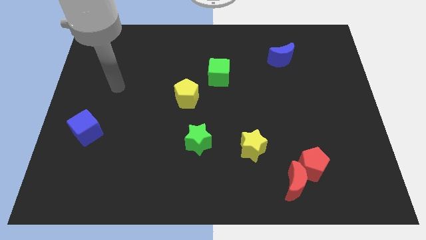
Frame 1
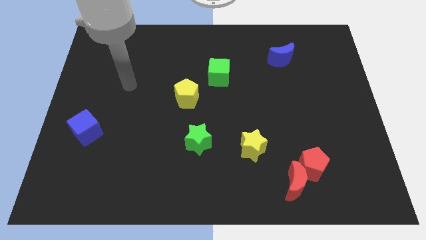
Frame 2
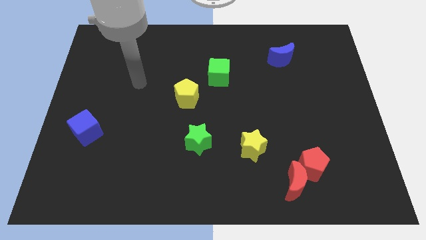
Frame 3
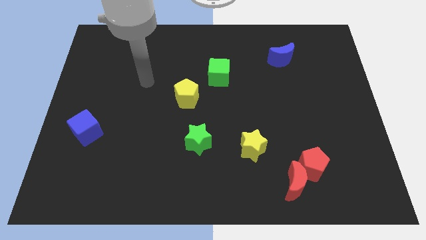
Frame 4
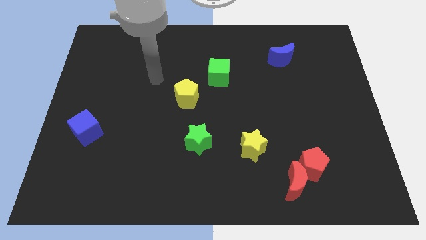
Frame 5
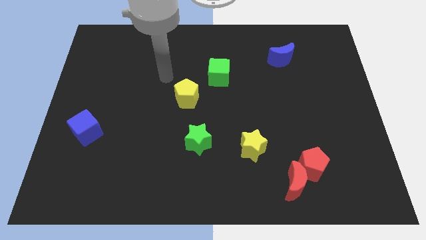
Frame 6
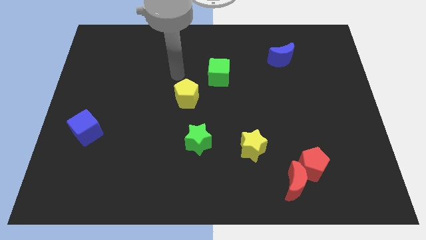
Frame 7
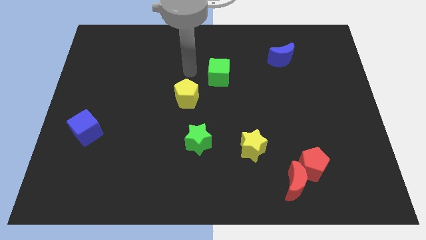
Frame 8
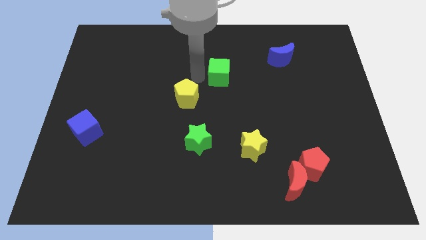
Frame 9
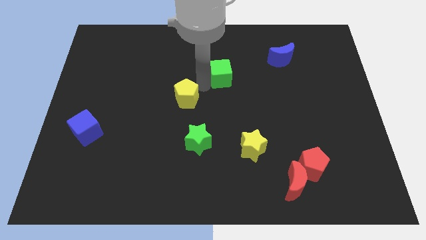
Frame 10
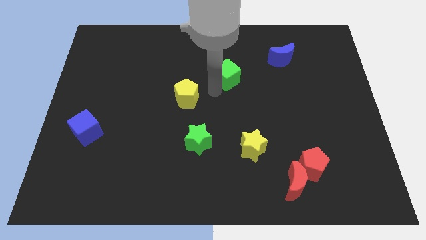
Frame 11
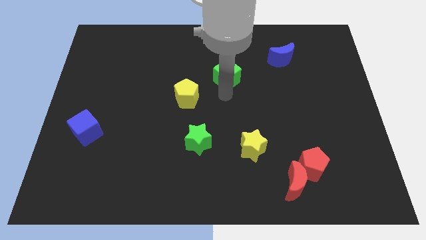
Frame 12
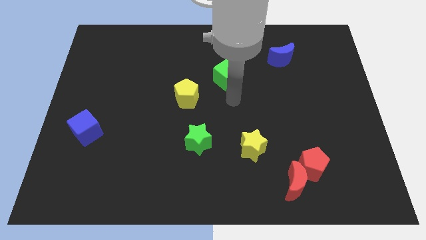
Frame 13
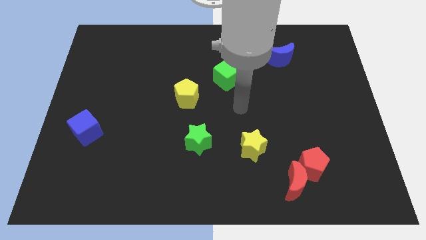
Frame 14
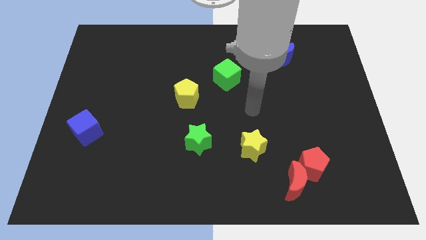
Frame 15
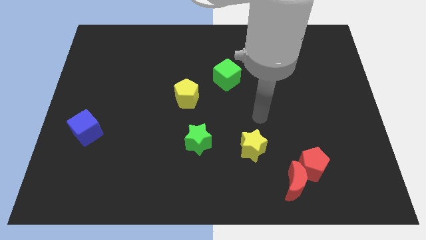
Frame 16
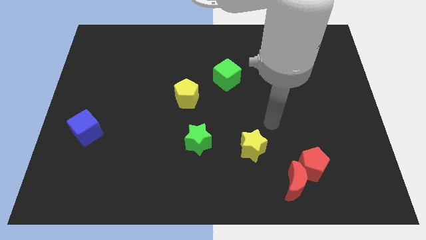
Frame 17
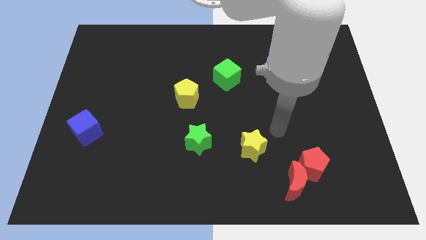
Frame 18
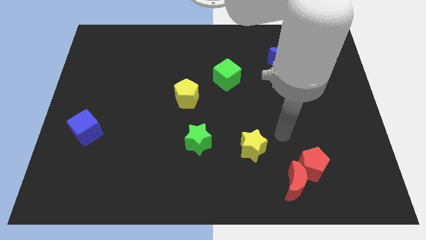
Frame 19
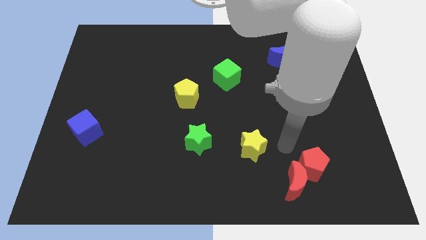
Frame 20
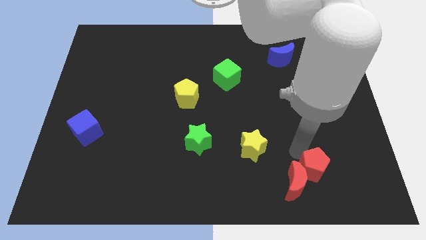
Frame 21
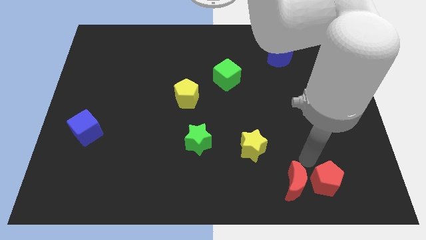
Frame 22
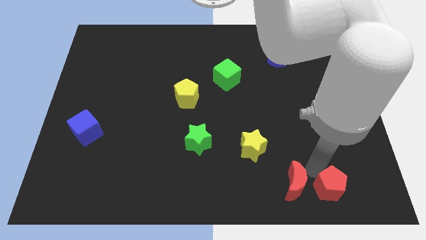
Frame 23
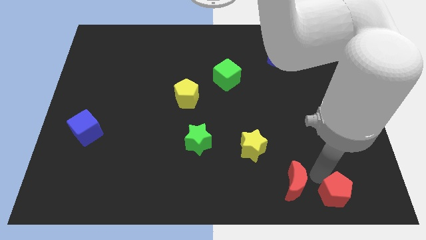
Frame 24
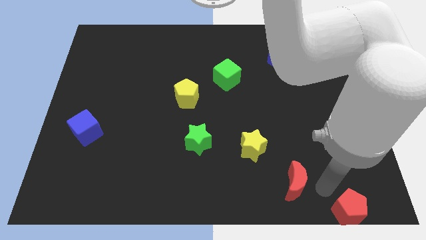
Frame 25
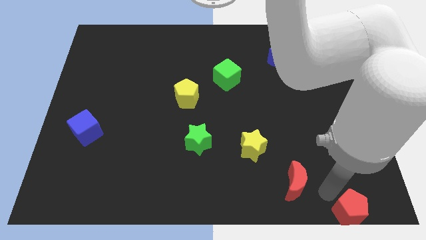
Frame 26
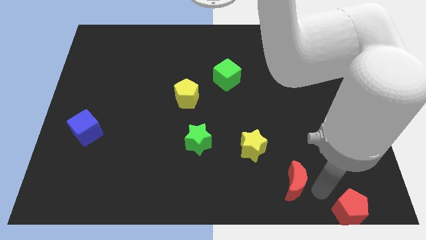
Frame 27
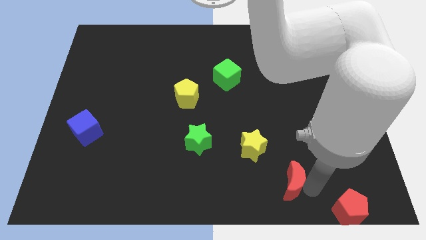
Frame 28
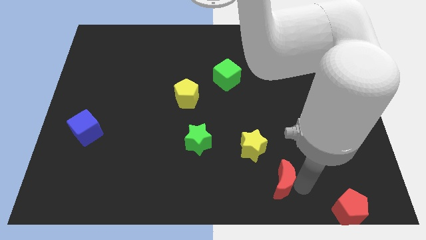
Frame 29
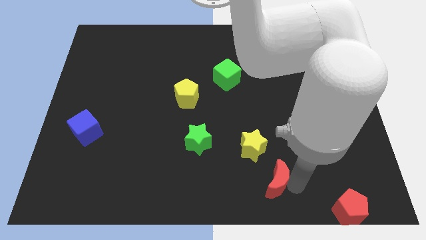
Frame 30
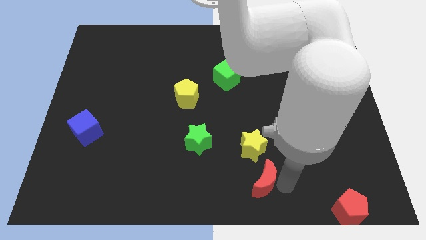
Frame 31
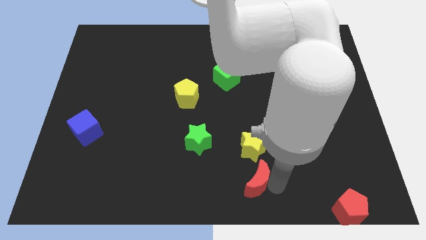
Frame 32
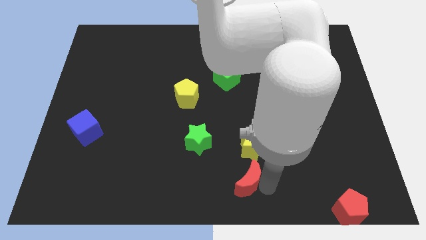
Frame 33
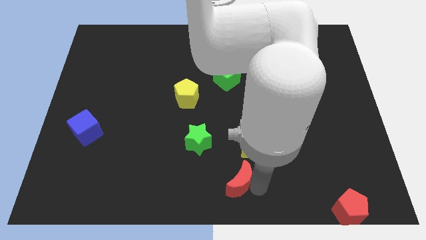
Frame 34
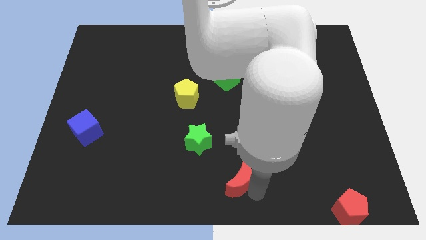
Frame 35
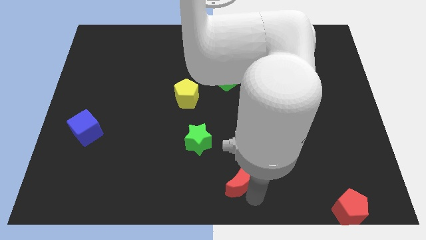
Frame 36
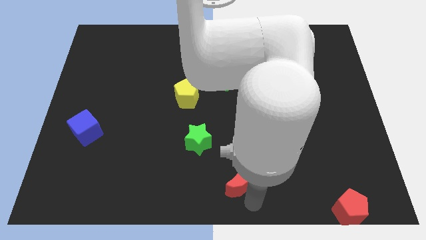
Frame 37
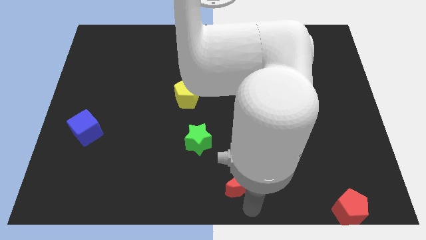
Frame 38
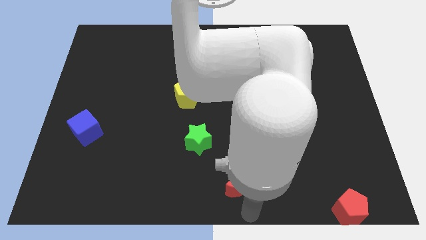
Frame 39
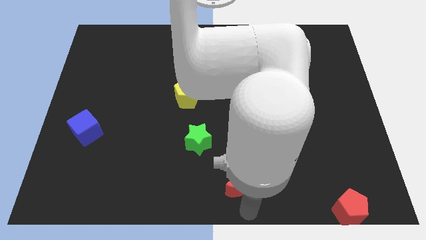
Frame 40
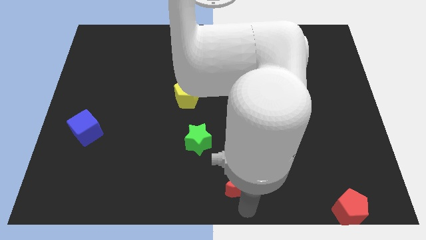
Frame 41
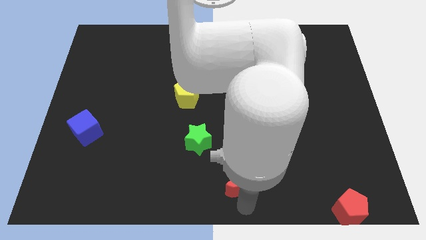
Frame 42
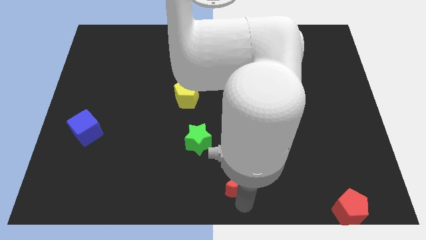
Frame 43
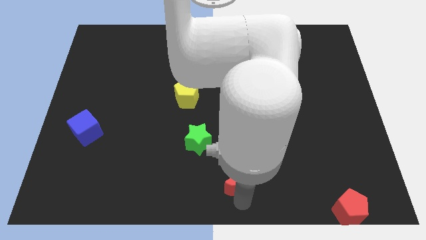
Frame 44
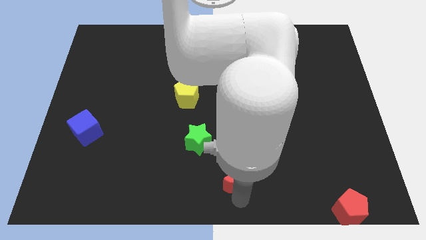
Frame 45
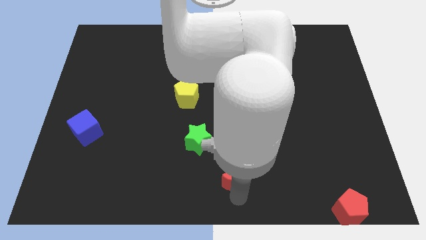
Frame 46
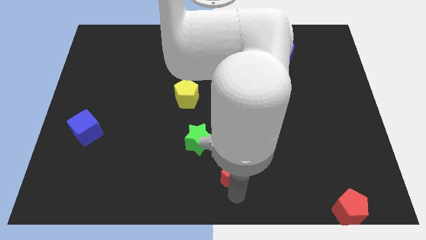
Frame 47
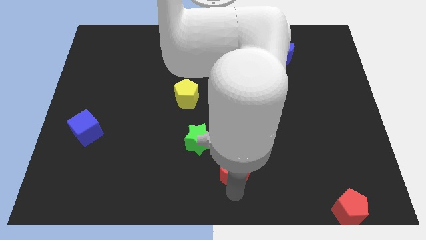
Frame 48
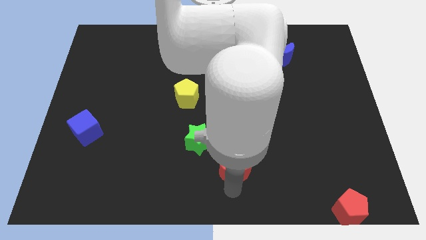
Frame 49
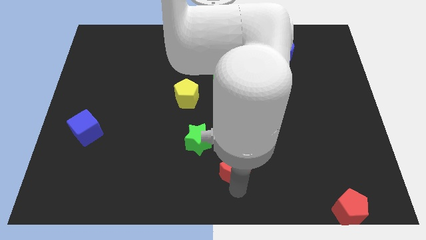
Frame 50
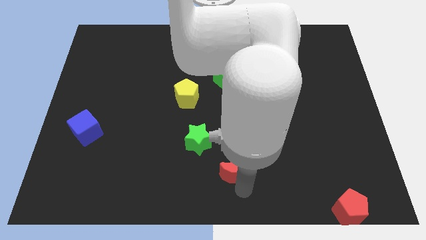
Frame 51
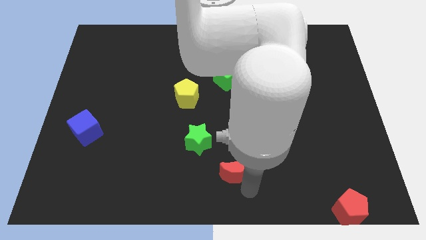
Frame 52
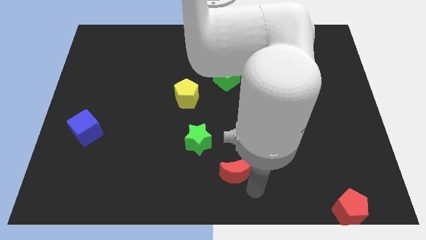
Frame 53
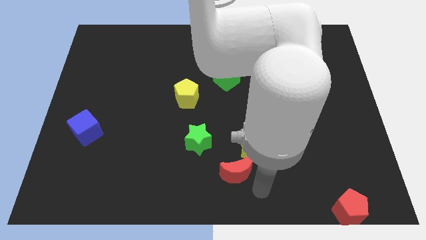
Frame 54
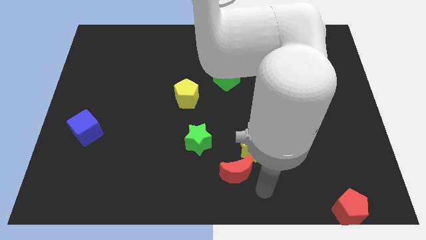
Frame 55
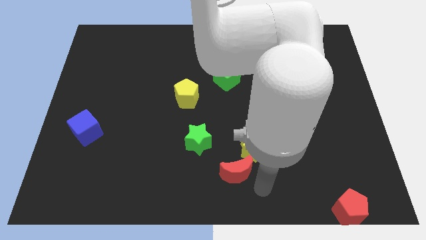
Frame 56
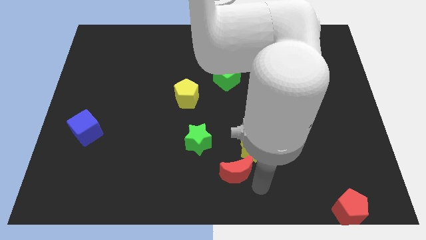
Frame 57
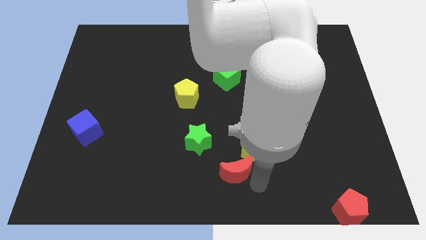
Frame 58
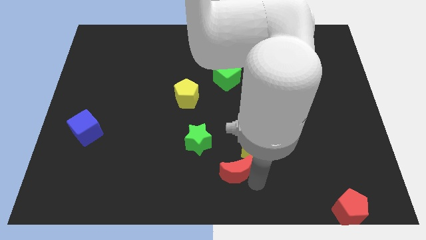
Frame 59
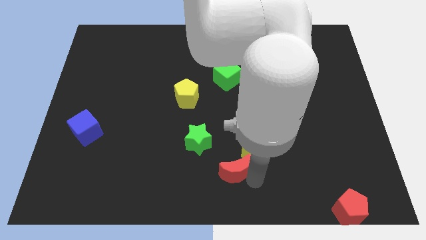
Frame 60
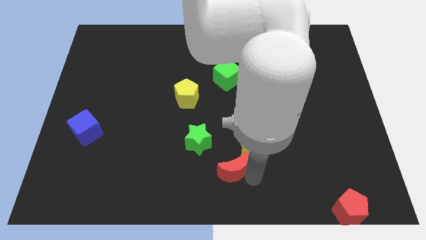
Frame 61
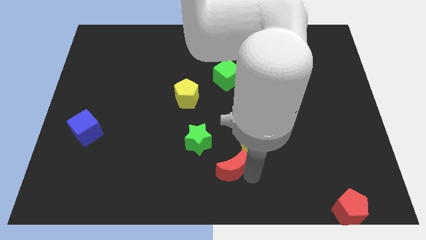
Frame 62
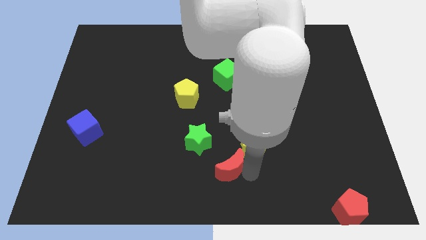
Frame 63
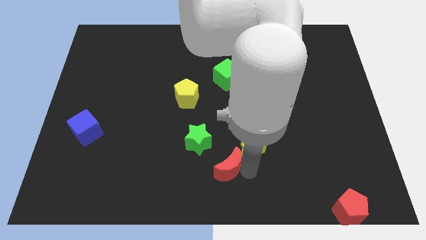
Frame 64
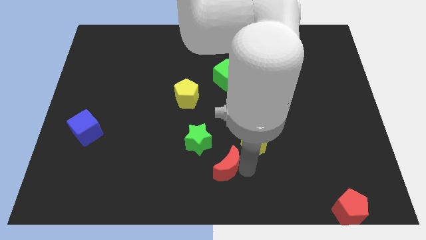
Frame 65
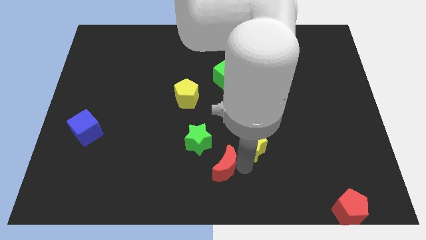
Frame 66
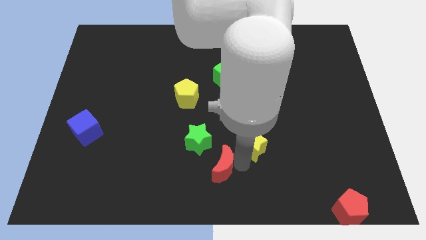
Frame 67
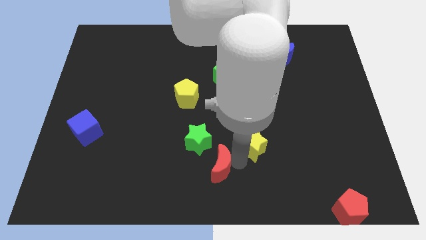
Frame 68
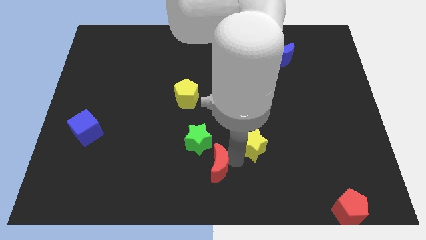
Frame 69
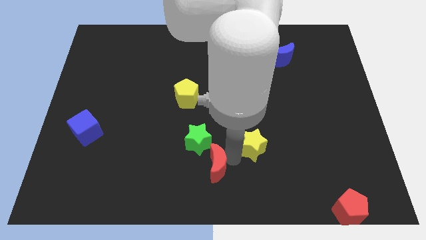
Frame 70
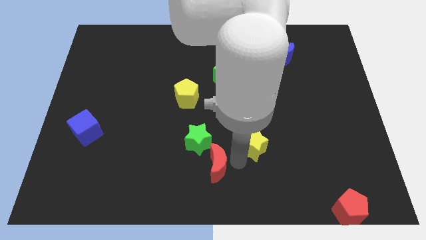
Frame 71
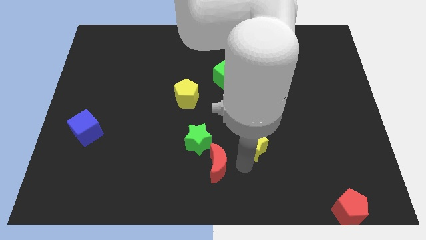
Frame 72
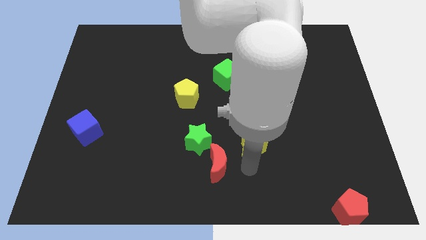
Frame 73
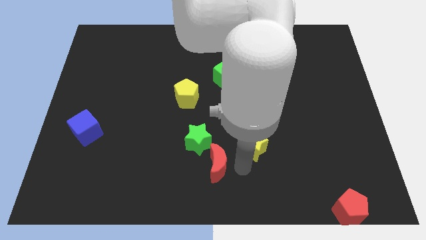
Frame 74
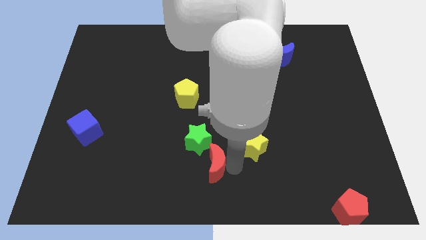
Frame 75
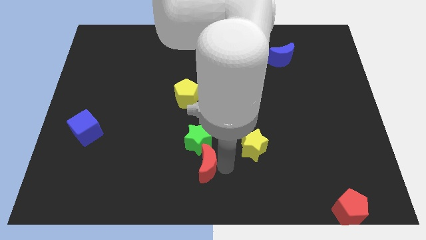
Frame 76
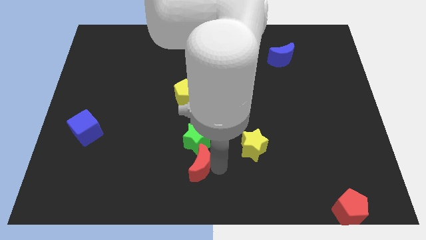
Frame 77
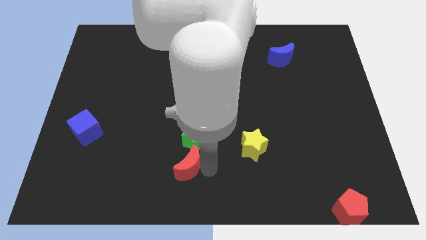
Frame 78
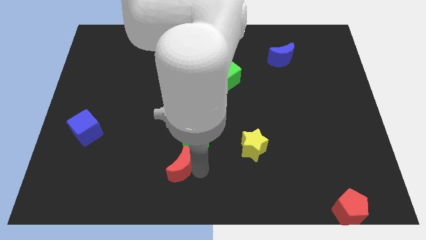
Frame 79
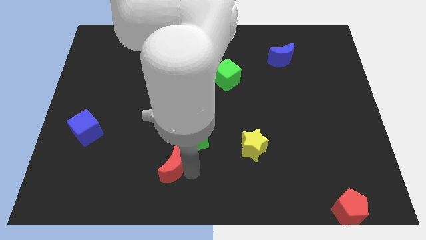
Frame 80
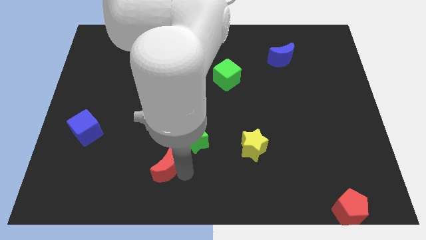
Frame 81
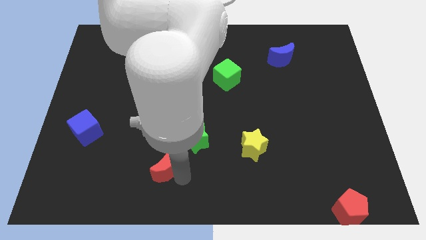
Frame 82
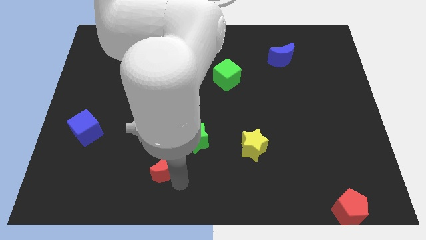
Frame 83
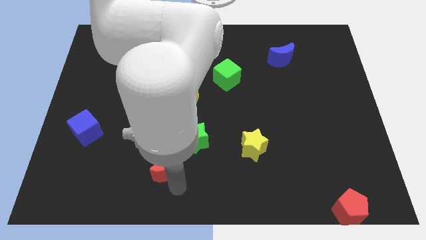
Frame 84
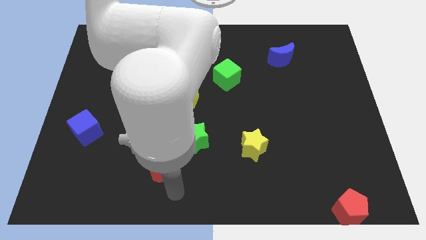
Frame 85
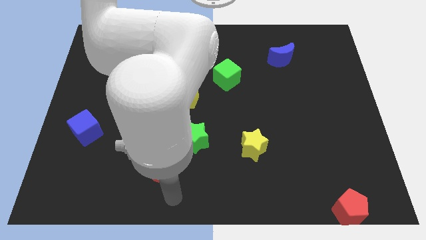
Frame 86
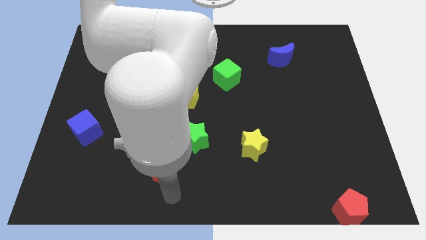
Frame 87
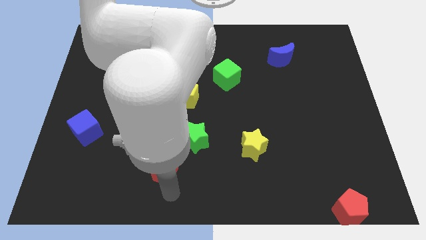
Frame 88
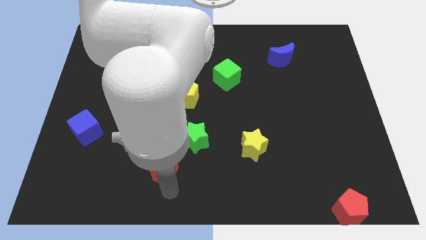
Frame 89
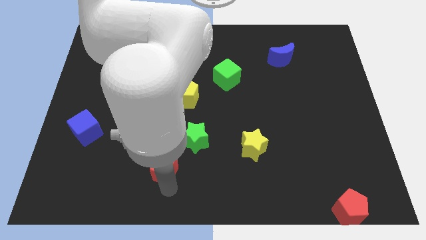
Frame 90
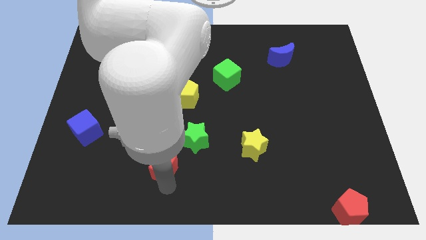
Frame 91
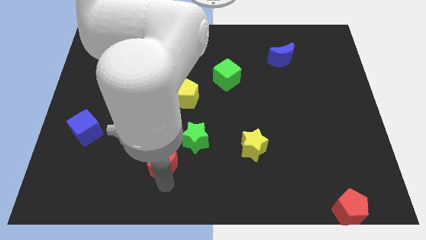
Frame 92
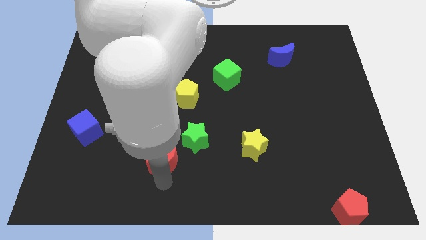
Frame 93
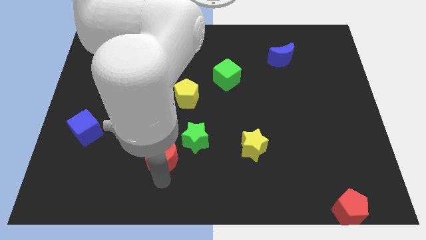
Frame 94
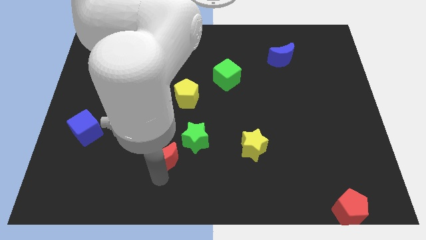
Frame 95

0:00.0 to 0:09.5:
push the red moon just left of the green star
